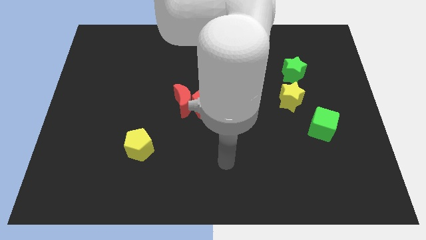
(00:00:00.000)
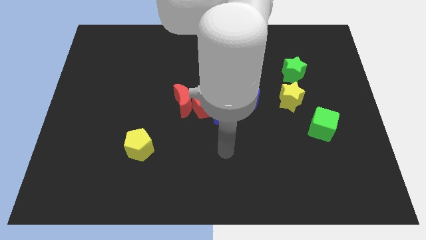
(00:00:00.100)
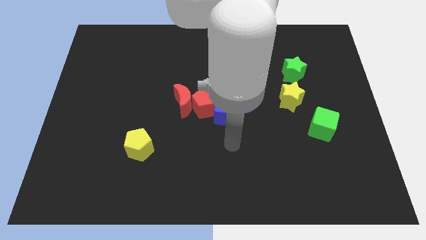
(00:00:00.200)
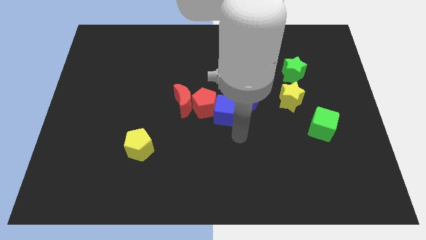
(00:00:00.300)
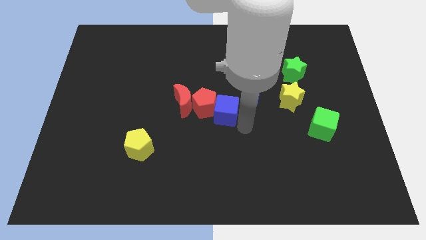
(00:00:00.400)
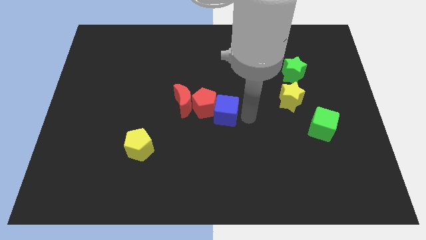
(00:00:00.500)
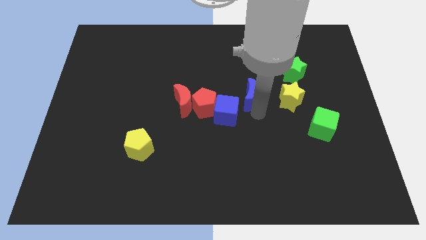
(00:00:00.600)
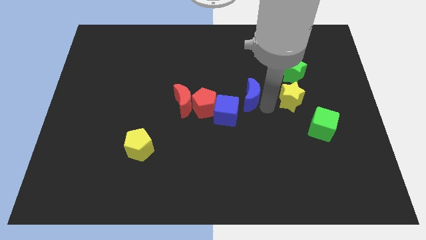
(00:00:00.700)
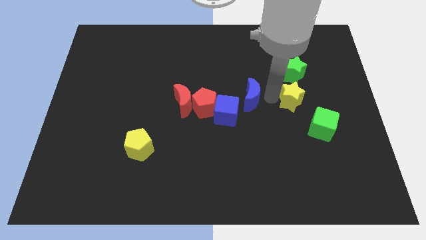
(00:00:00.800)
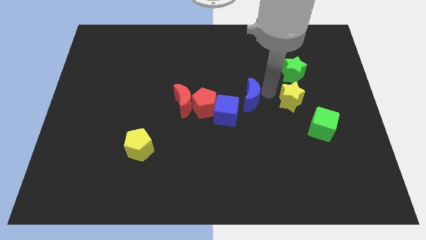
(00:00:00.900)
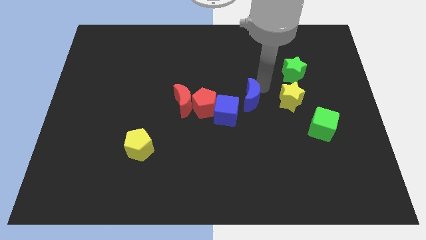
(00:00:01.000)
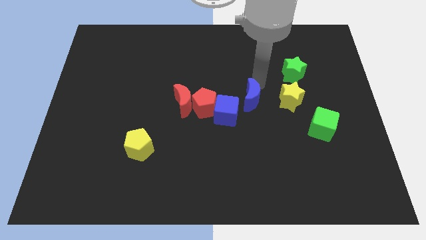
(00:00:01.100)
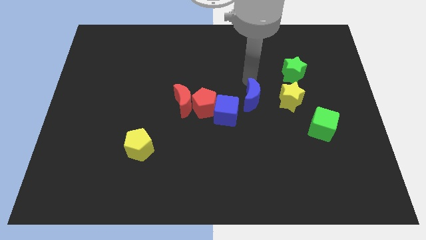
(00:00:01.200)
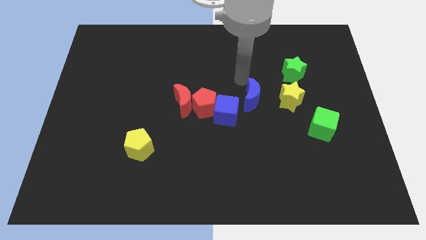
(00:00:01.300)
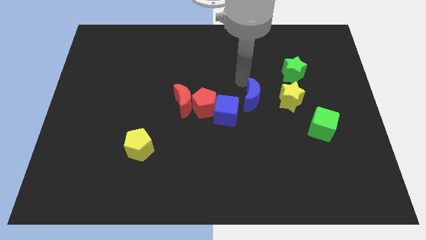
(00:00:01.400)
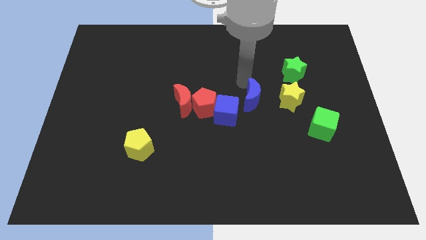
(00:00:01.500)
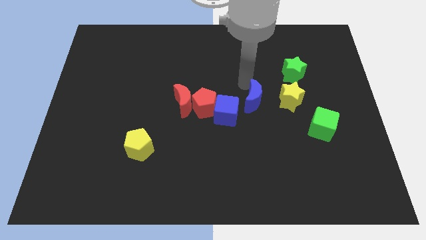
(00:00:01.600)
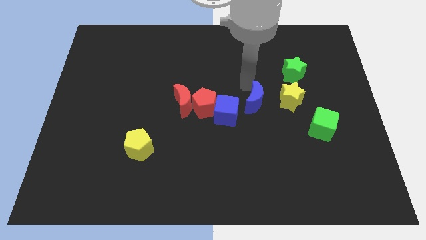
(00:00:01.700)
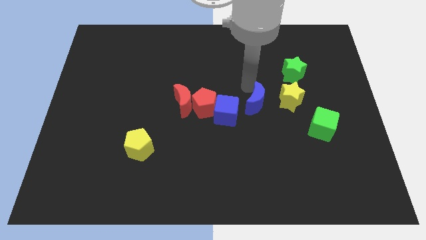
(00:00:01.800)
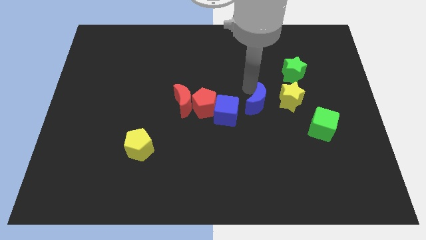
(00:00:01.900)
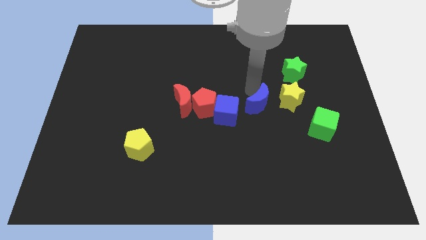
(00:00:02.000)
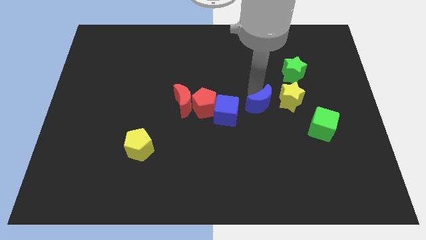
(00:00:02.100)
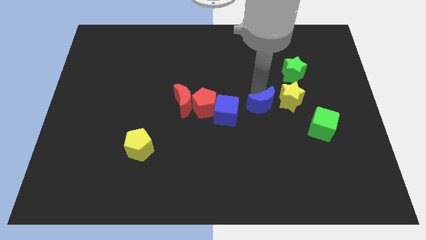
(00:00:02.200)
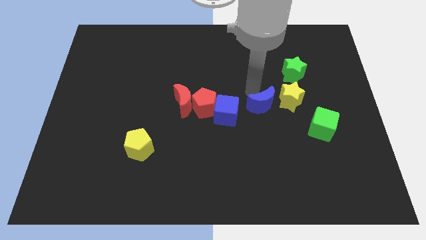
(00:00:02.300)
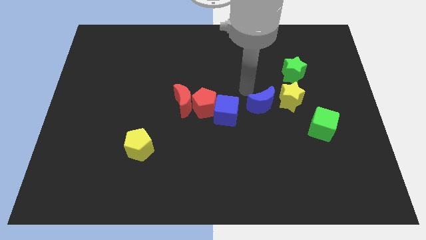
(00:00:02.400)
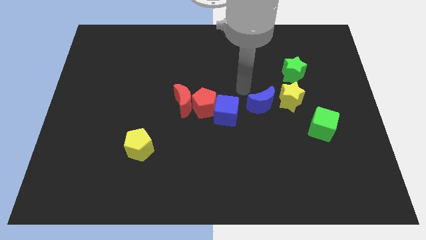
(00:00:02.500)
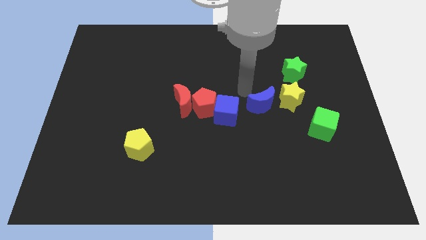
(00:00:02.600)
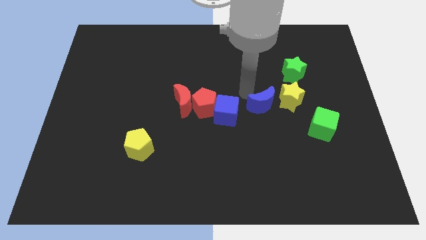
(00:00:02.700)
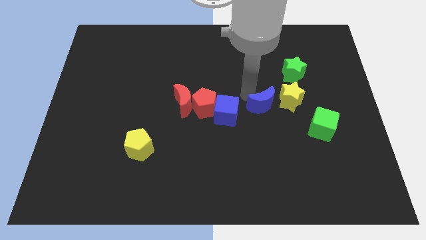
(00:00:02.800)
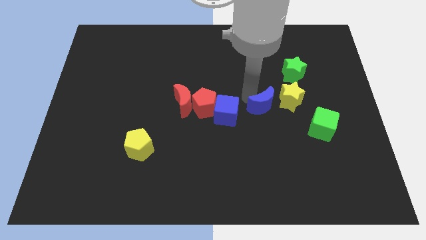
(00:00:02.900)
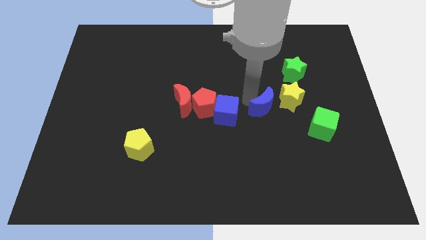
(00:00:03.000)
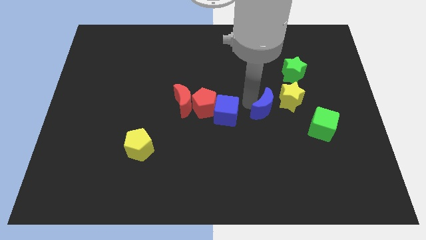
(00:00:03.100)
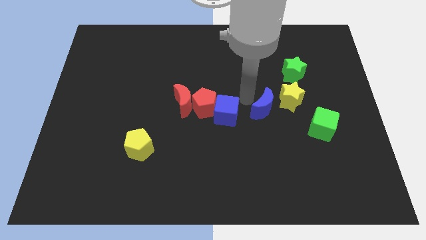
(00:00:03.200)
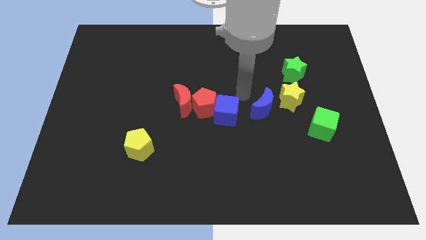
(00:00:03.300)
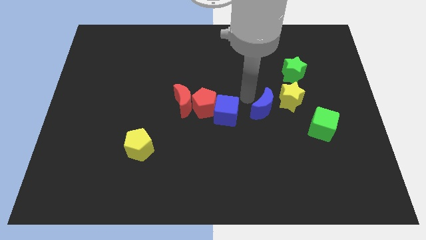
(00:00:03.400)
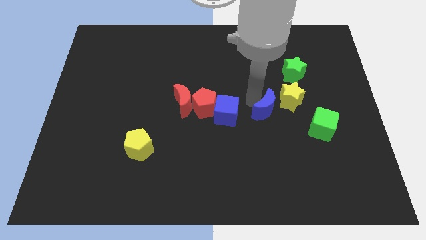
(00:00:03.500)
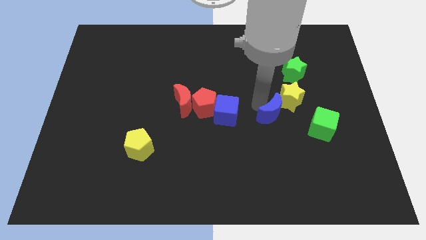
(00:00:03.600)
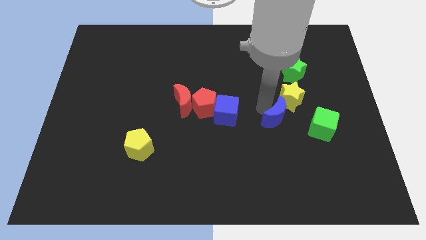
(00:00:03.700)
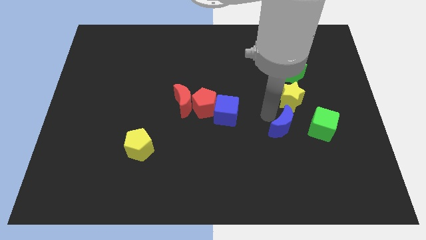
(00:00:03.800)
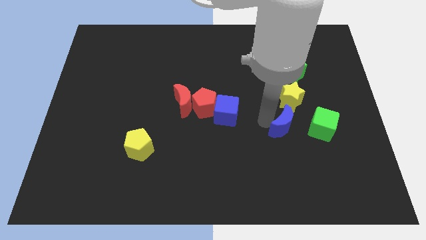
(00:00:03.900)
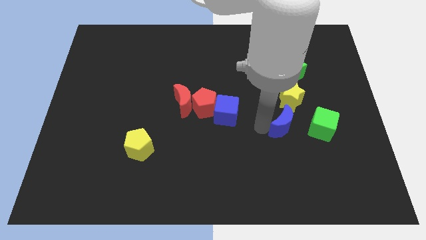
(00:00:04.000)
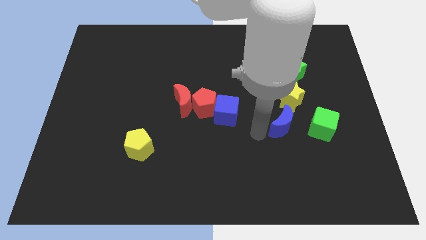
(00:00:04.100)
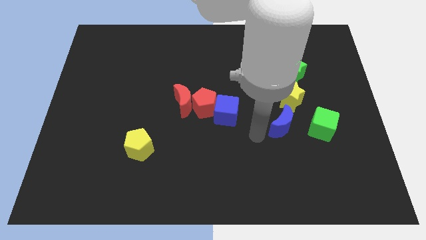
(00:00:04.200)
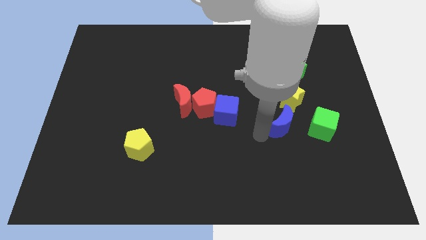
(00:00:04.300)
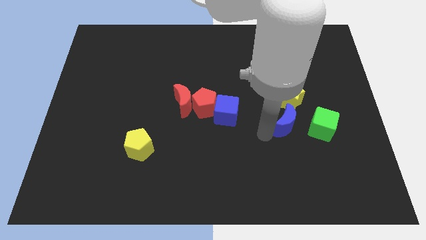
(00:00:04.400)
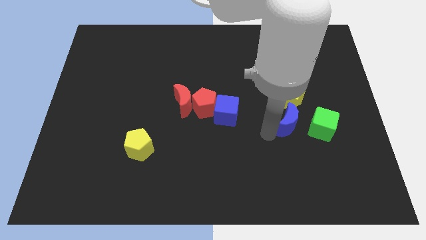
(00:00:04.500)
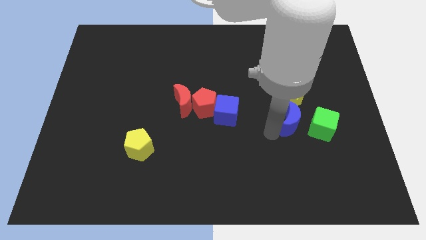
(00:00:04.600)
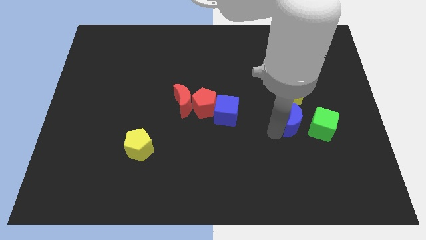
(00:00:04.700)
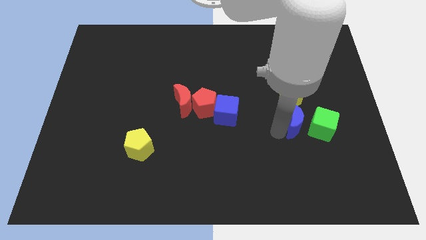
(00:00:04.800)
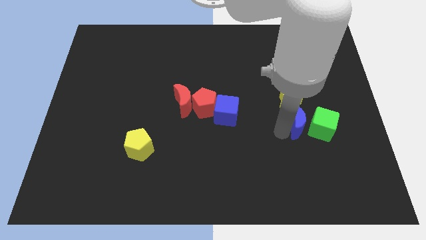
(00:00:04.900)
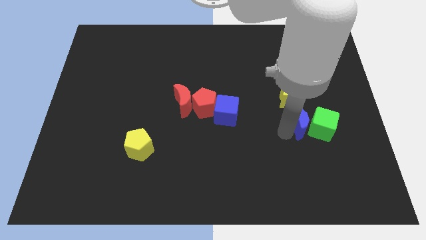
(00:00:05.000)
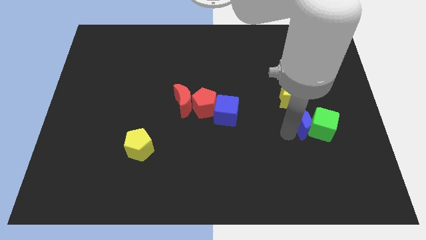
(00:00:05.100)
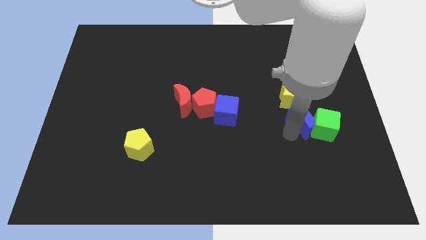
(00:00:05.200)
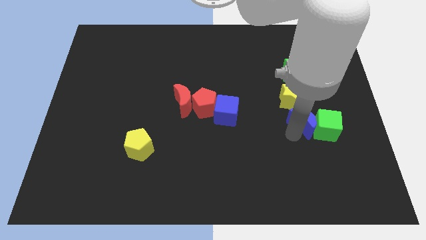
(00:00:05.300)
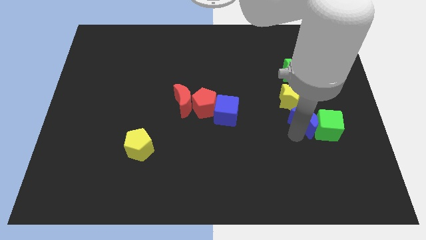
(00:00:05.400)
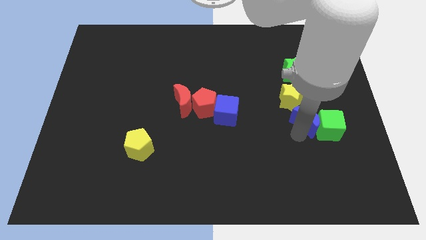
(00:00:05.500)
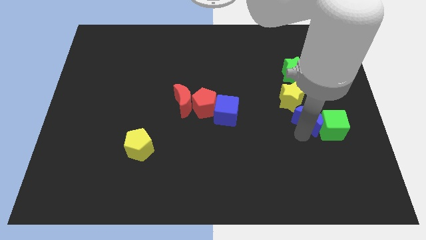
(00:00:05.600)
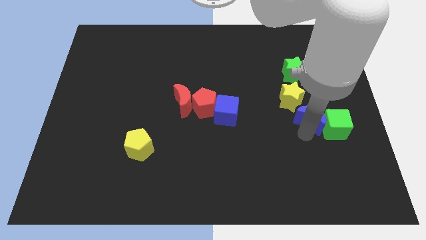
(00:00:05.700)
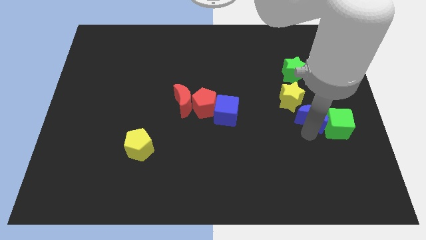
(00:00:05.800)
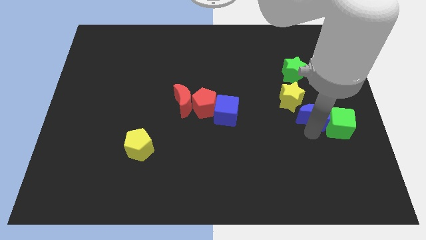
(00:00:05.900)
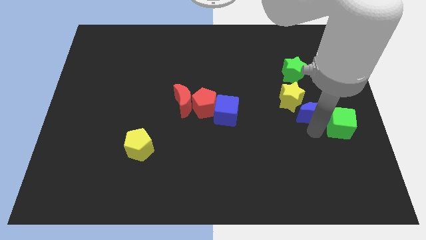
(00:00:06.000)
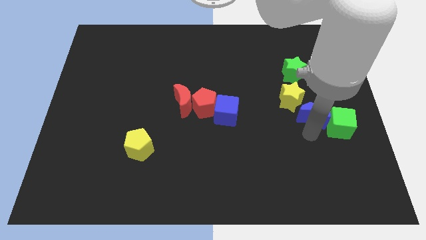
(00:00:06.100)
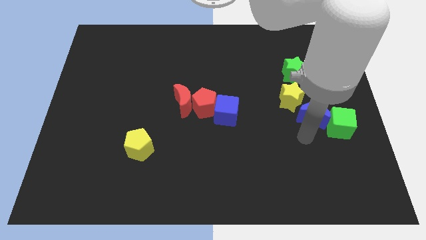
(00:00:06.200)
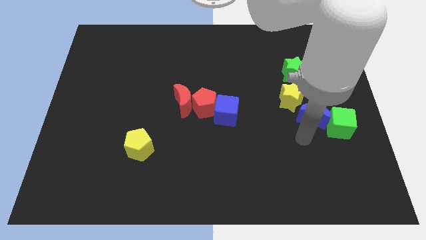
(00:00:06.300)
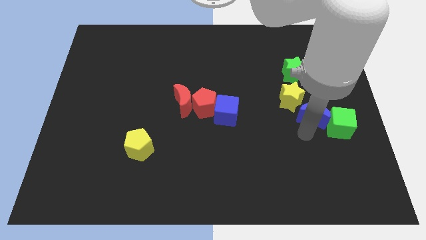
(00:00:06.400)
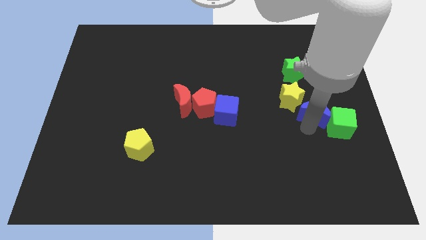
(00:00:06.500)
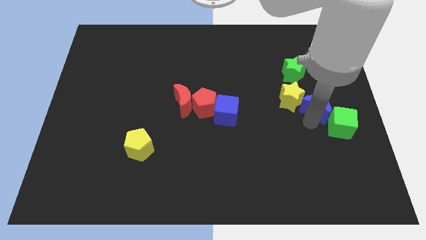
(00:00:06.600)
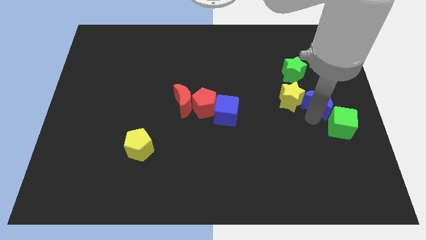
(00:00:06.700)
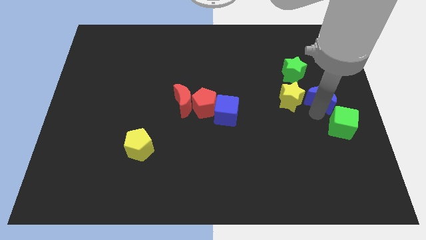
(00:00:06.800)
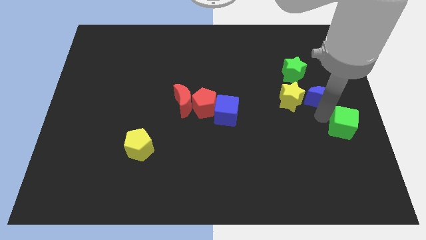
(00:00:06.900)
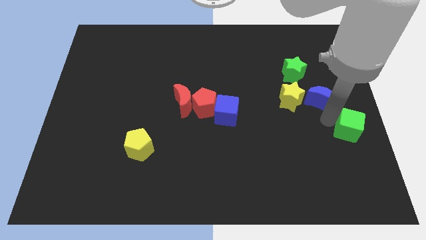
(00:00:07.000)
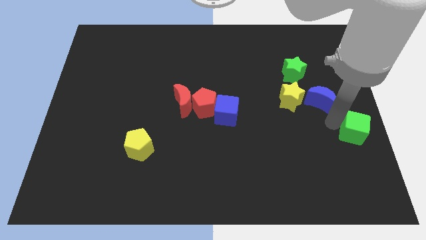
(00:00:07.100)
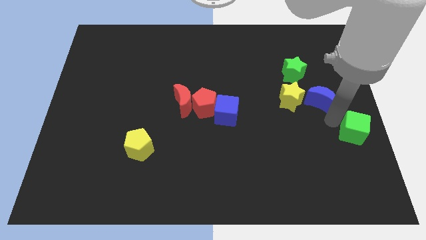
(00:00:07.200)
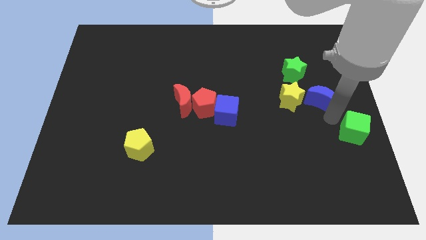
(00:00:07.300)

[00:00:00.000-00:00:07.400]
move the blue moon diagonally up and to the right of the yellow star
